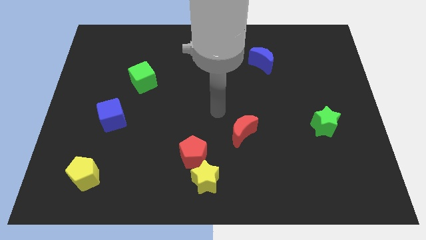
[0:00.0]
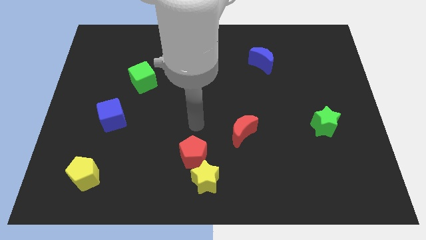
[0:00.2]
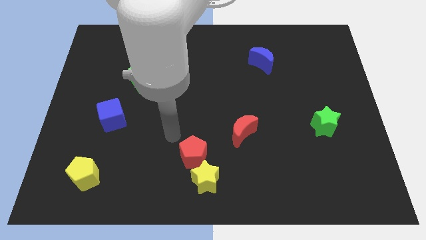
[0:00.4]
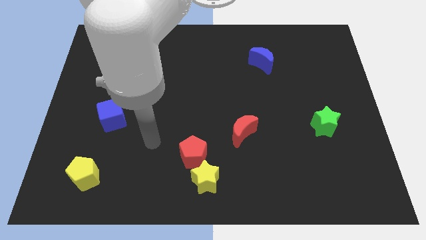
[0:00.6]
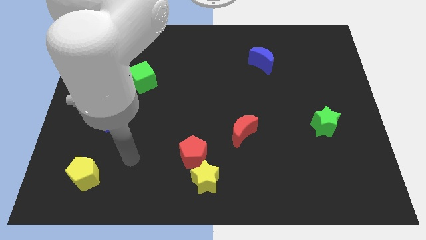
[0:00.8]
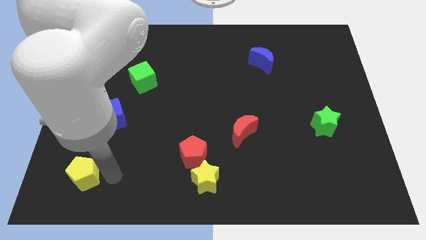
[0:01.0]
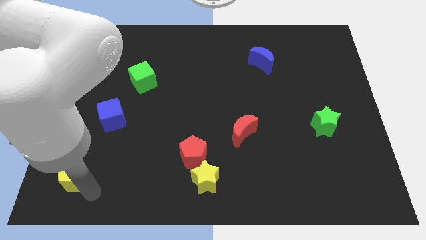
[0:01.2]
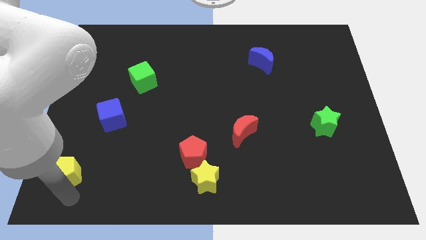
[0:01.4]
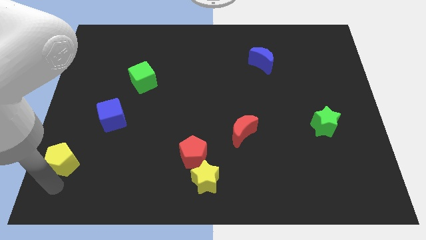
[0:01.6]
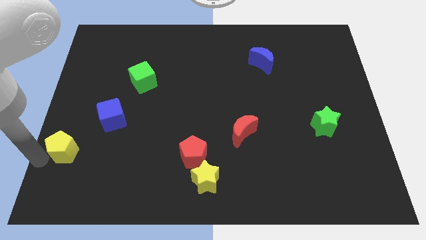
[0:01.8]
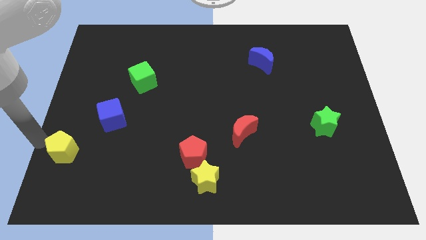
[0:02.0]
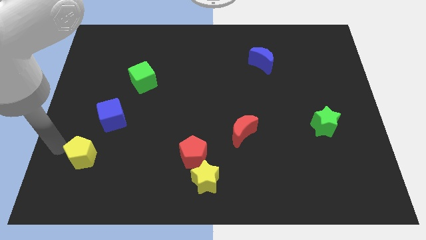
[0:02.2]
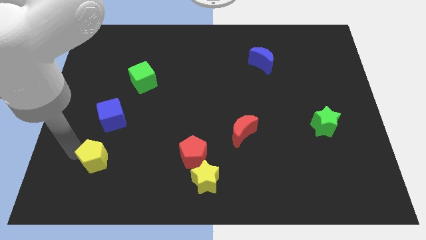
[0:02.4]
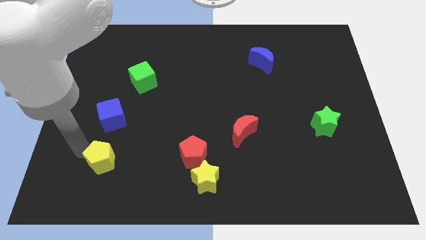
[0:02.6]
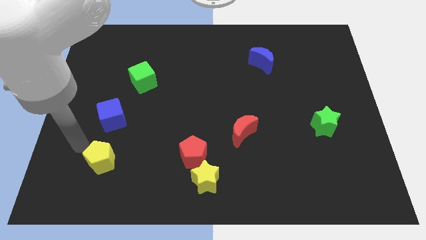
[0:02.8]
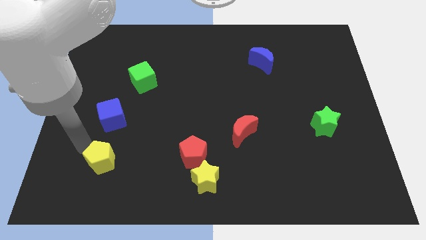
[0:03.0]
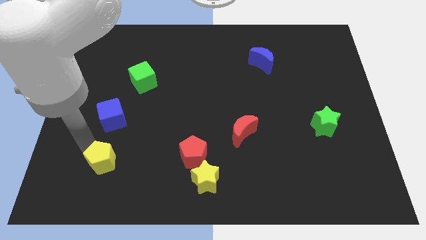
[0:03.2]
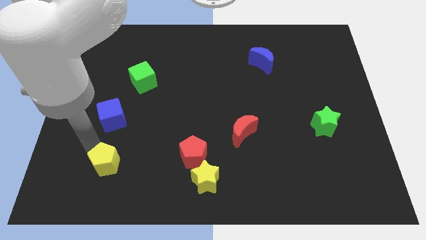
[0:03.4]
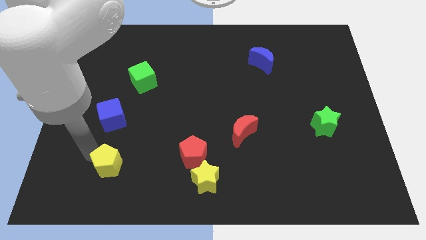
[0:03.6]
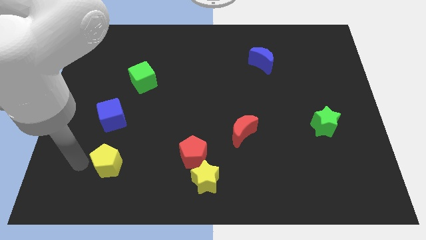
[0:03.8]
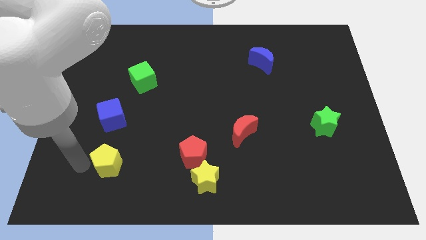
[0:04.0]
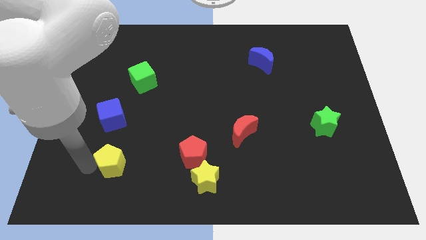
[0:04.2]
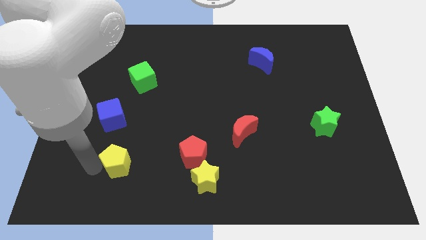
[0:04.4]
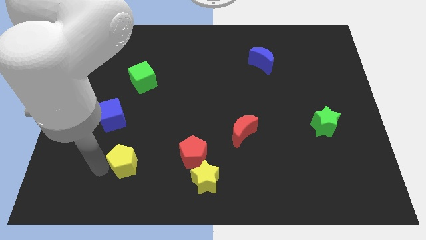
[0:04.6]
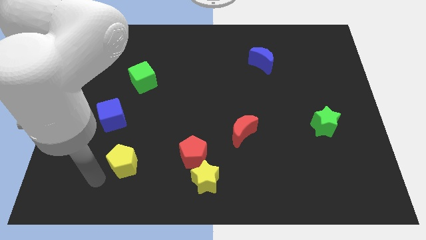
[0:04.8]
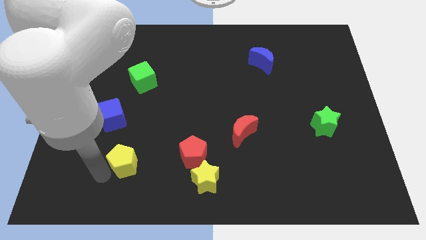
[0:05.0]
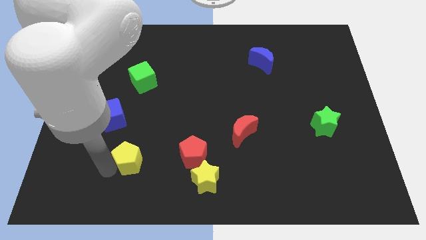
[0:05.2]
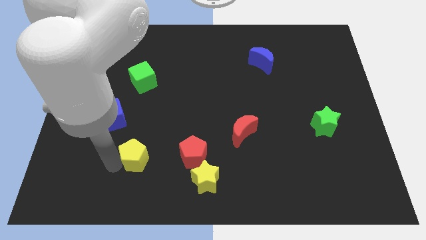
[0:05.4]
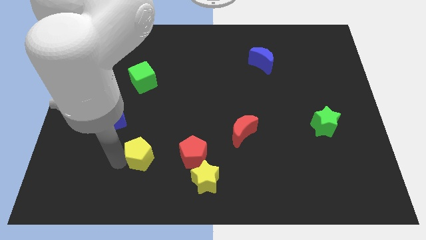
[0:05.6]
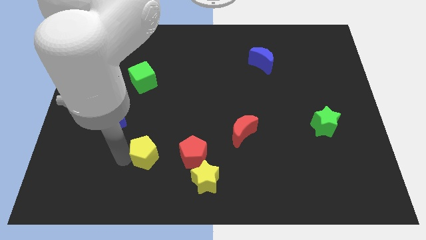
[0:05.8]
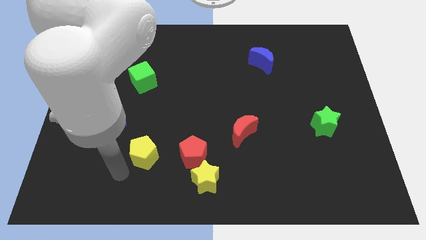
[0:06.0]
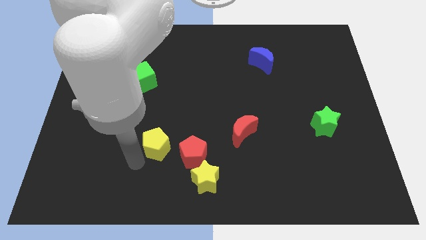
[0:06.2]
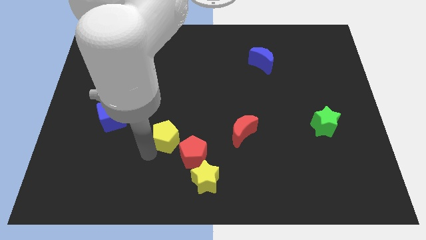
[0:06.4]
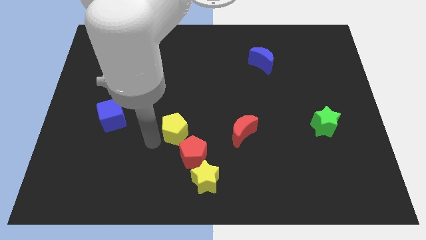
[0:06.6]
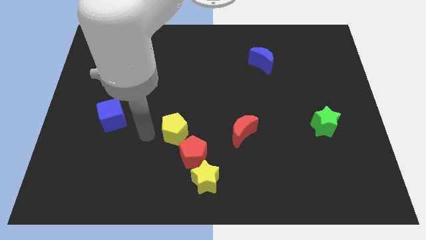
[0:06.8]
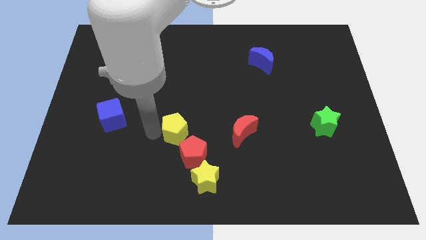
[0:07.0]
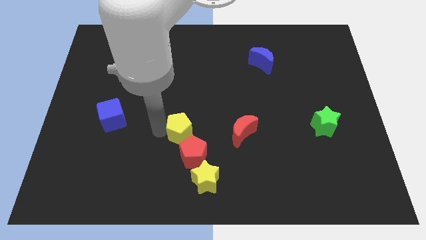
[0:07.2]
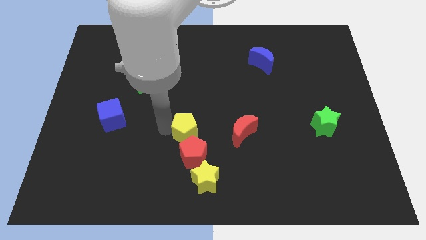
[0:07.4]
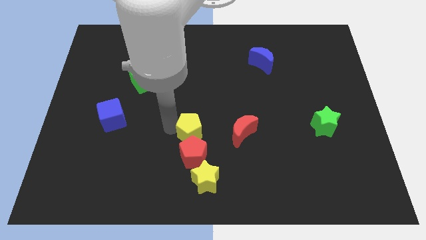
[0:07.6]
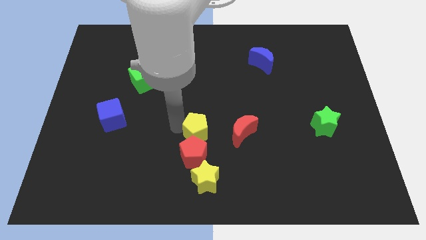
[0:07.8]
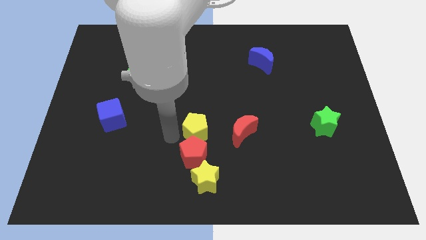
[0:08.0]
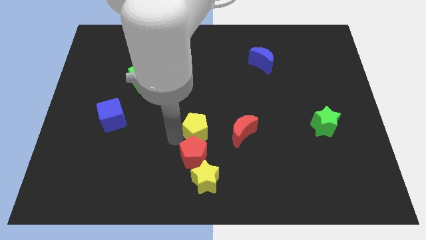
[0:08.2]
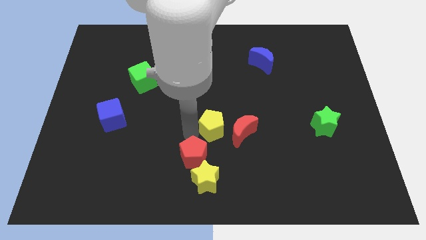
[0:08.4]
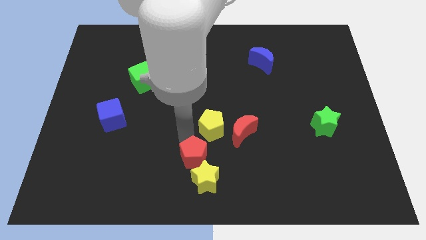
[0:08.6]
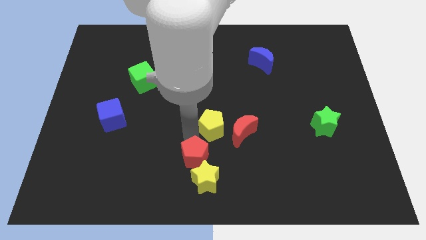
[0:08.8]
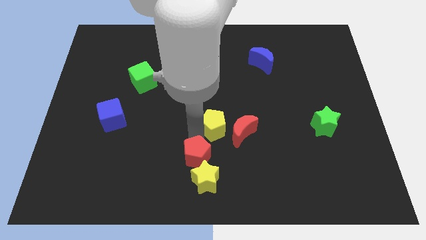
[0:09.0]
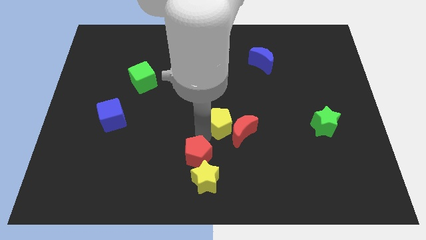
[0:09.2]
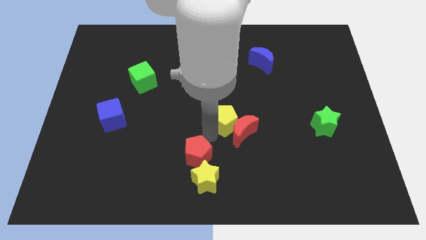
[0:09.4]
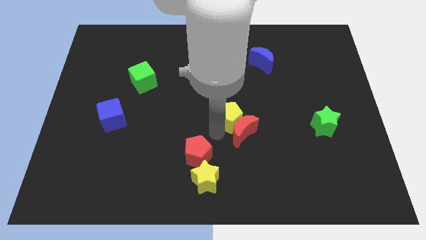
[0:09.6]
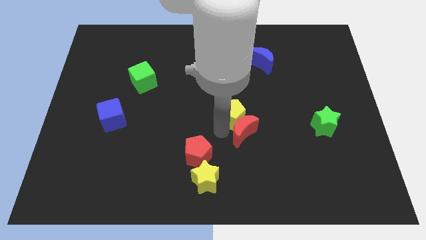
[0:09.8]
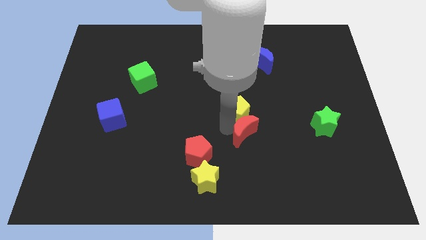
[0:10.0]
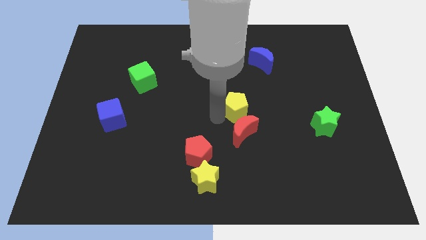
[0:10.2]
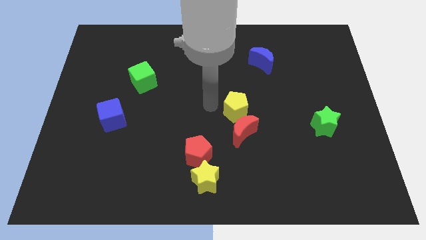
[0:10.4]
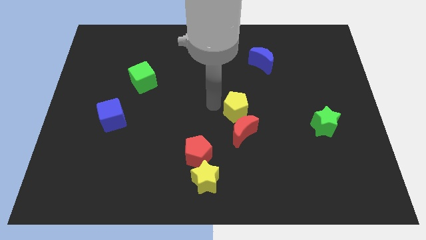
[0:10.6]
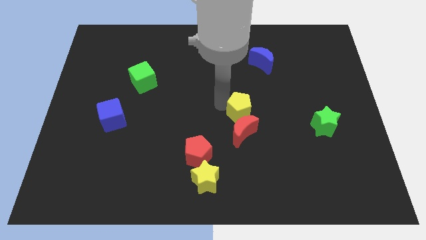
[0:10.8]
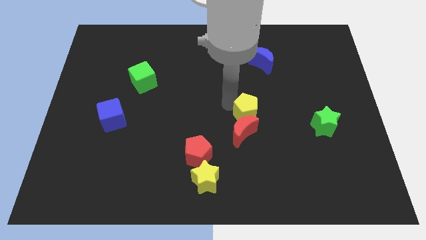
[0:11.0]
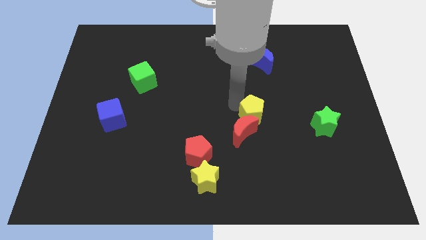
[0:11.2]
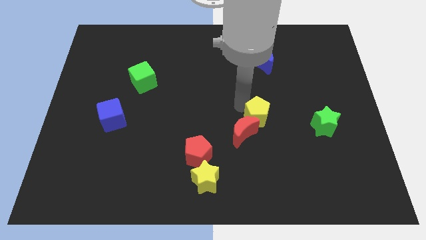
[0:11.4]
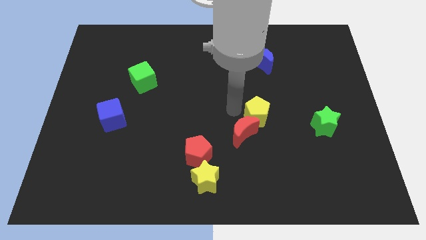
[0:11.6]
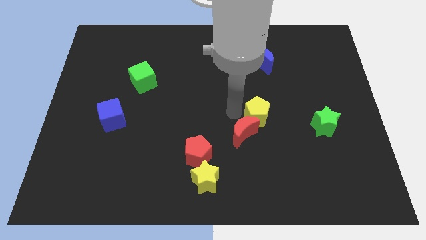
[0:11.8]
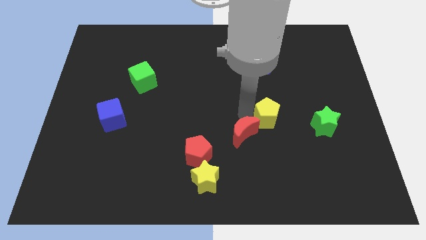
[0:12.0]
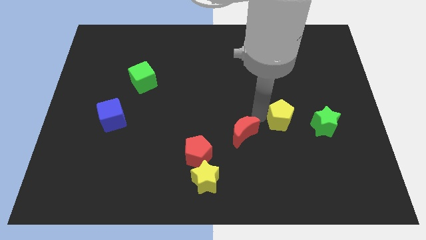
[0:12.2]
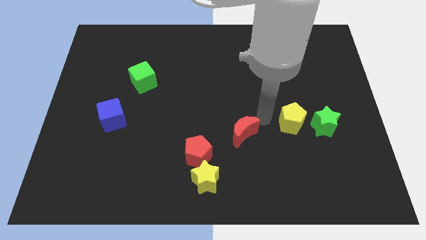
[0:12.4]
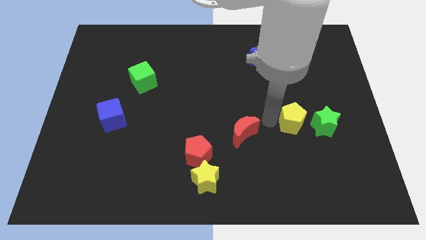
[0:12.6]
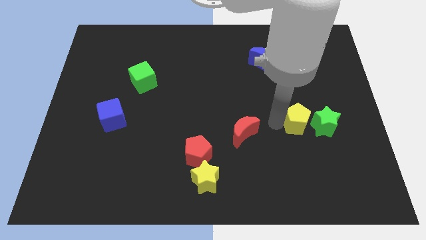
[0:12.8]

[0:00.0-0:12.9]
slide the yellow pentagon towards the green star
